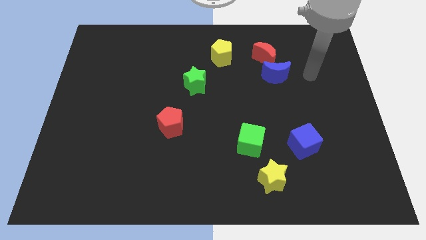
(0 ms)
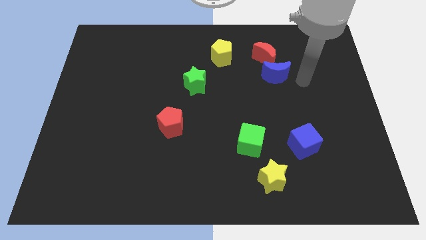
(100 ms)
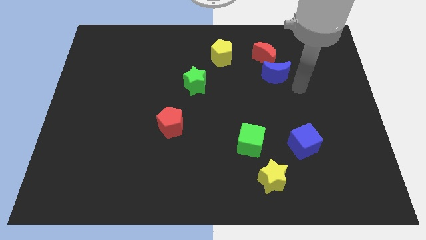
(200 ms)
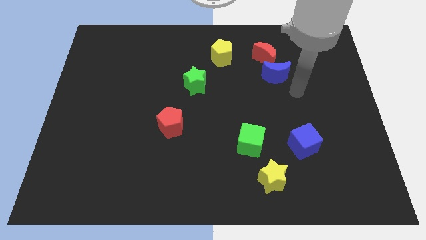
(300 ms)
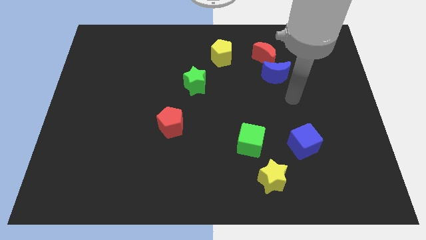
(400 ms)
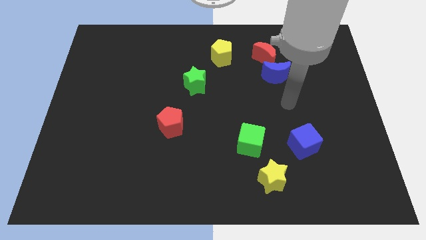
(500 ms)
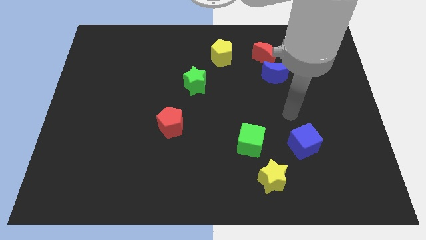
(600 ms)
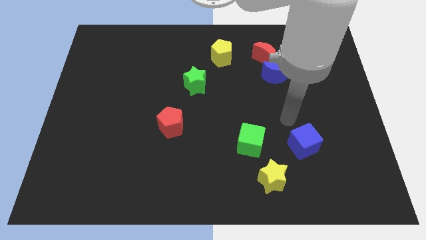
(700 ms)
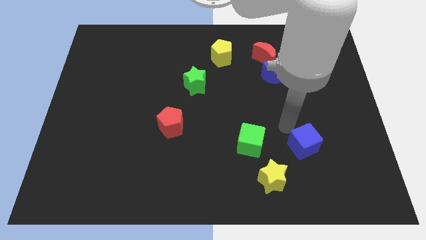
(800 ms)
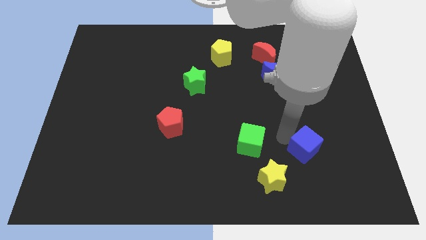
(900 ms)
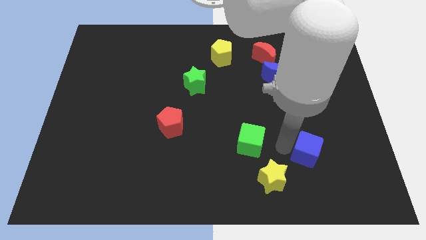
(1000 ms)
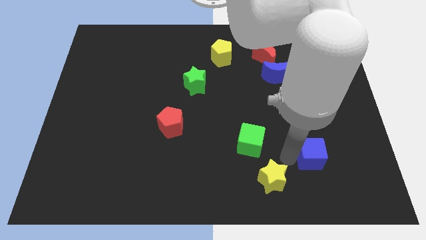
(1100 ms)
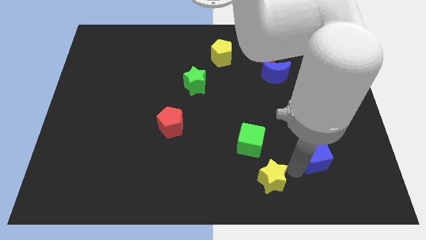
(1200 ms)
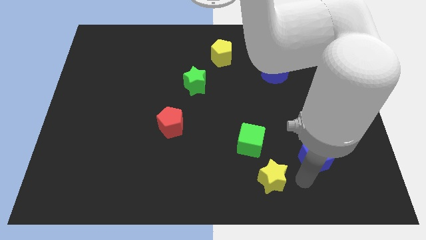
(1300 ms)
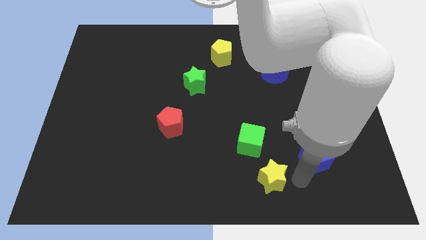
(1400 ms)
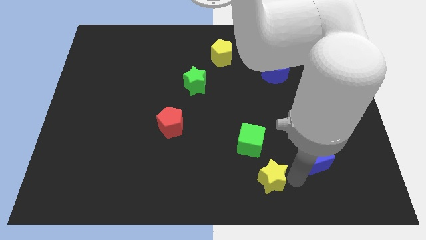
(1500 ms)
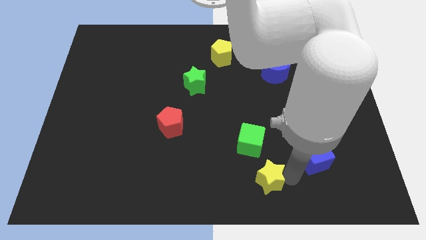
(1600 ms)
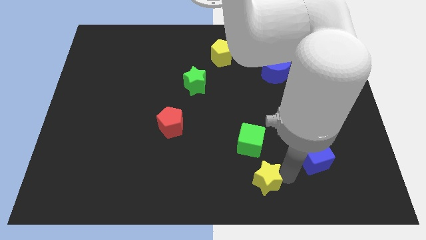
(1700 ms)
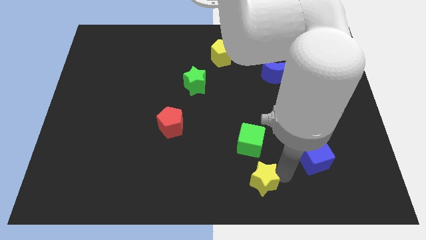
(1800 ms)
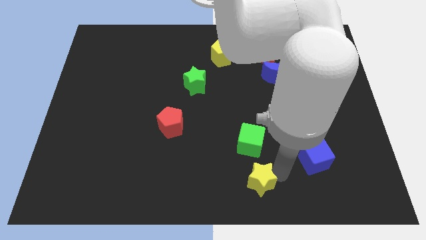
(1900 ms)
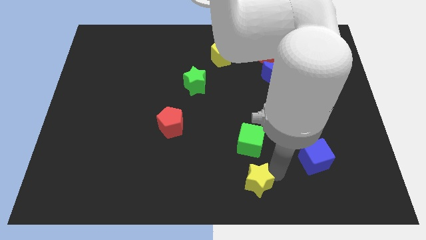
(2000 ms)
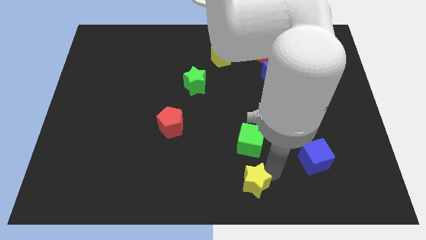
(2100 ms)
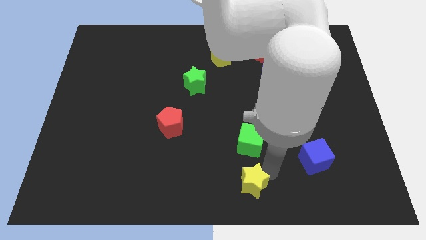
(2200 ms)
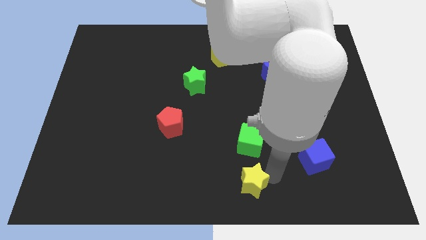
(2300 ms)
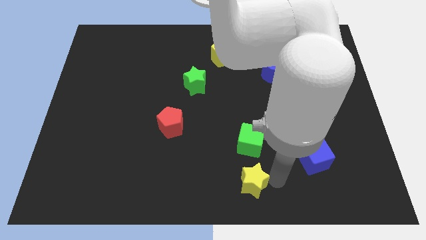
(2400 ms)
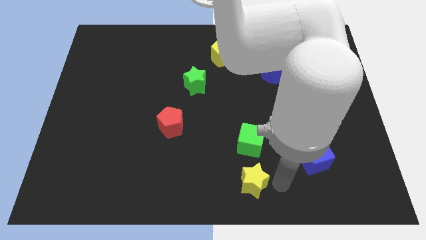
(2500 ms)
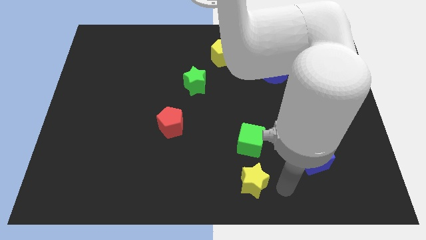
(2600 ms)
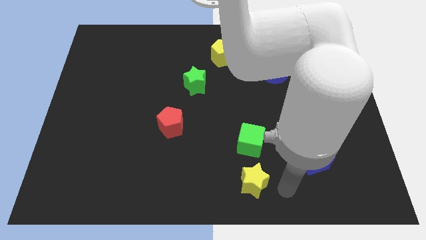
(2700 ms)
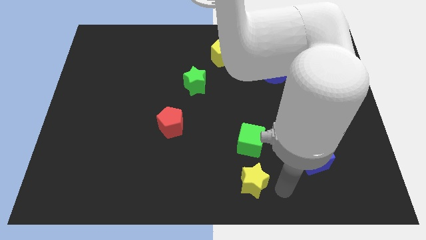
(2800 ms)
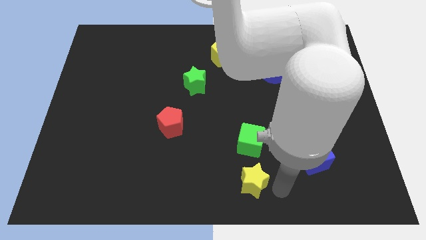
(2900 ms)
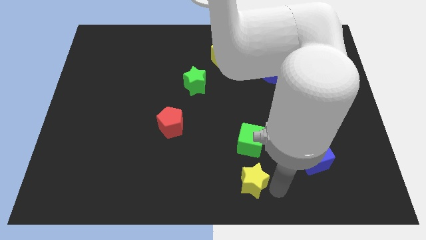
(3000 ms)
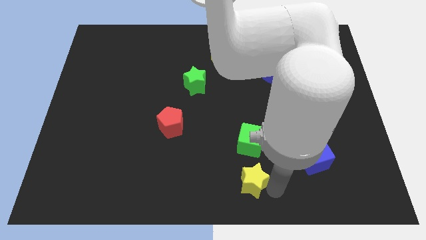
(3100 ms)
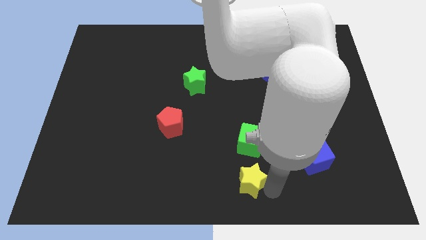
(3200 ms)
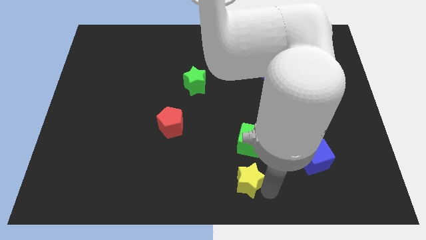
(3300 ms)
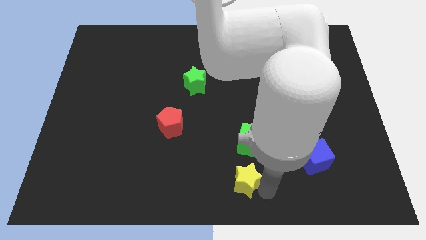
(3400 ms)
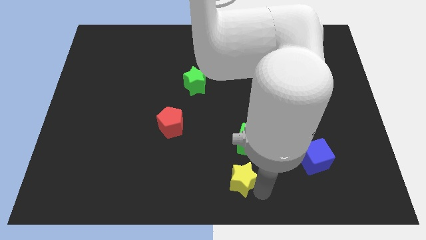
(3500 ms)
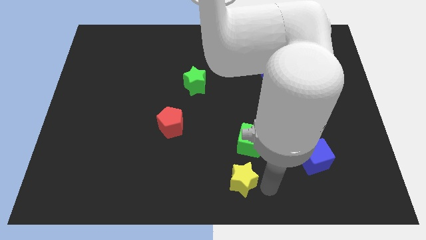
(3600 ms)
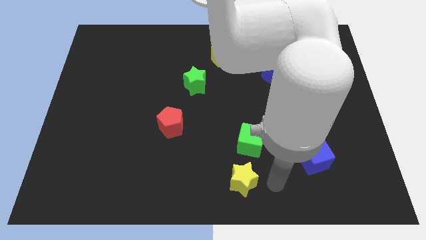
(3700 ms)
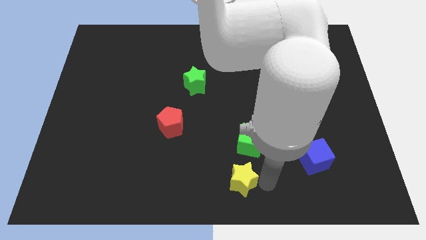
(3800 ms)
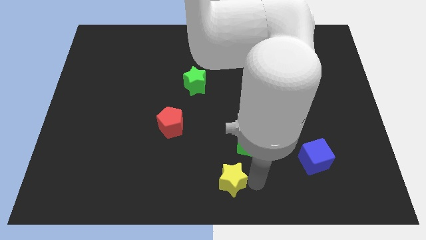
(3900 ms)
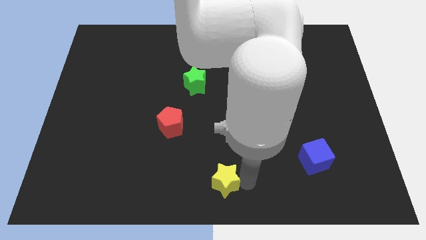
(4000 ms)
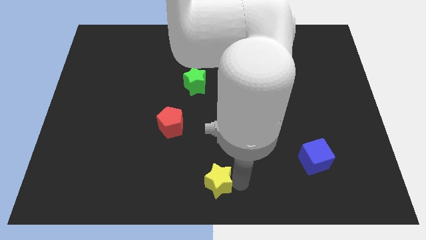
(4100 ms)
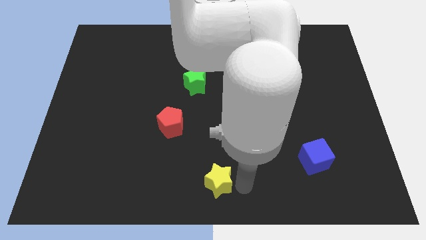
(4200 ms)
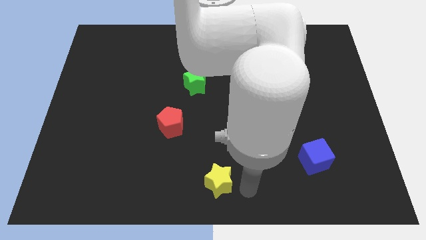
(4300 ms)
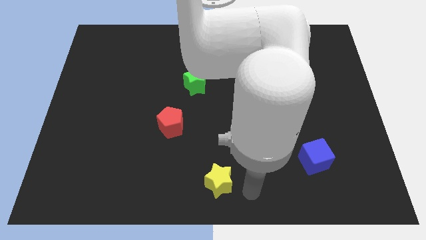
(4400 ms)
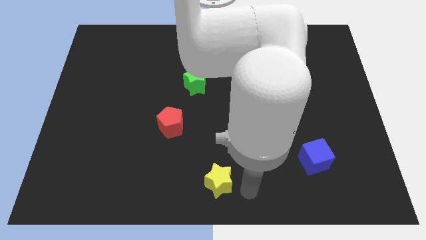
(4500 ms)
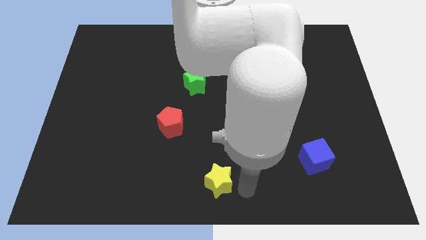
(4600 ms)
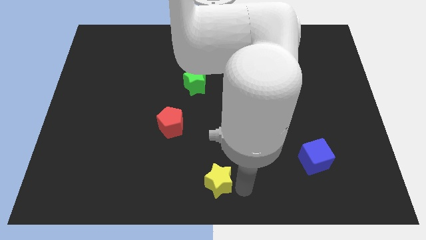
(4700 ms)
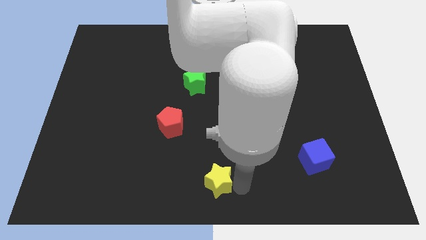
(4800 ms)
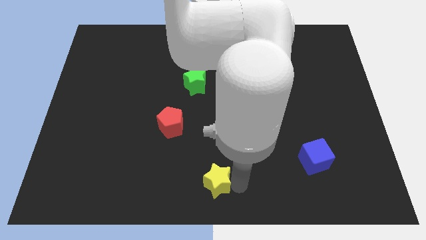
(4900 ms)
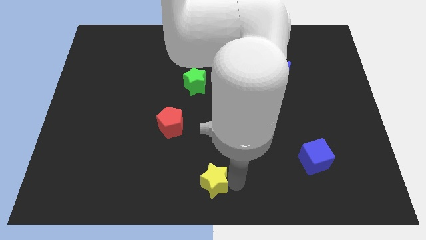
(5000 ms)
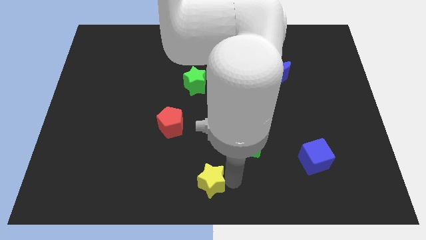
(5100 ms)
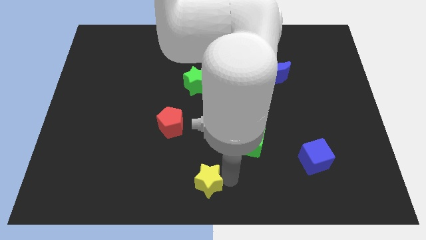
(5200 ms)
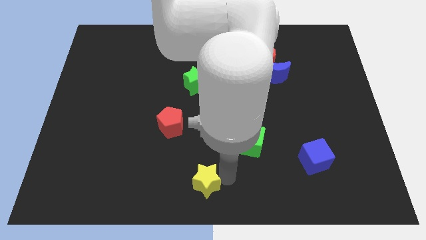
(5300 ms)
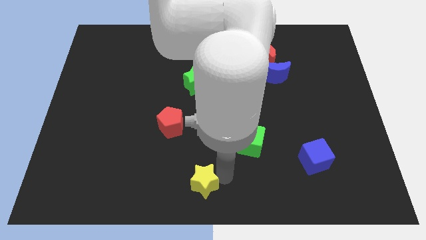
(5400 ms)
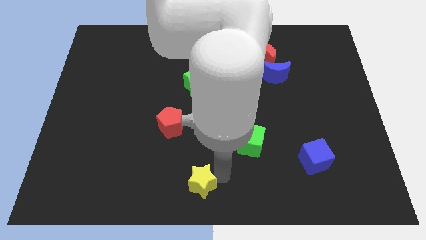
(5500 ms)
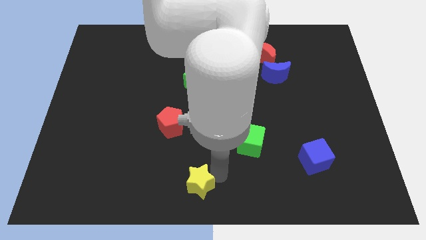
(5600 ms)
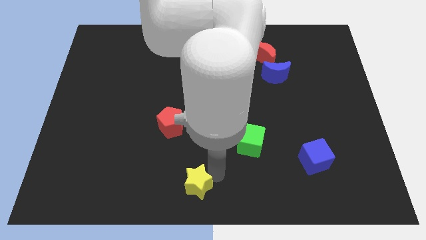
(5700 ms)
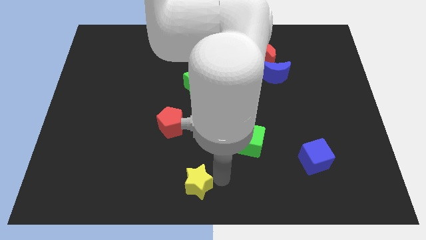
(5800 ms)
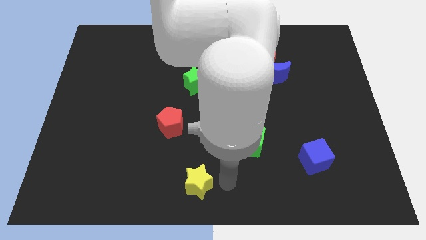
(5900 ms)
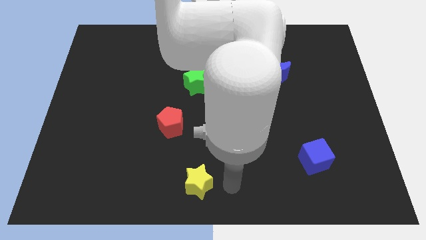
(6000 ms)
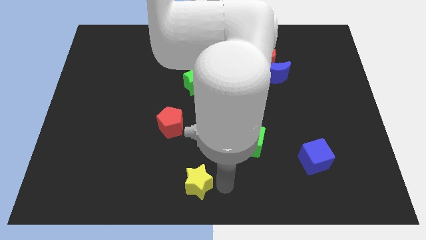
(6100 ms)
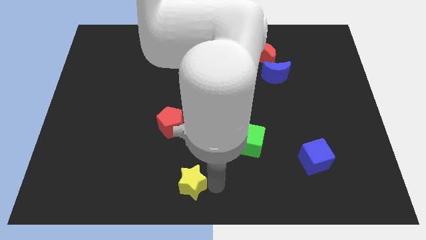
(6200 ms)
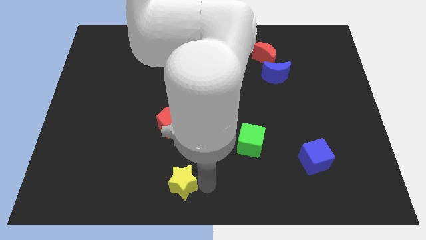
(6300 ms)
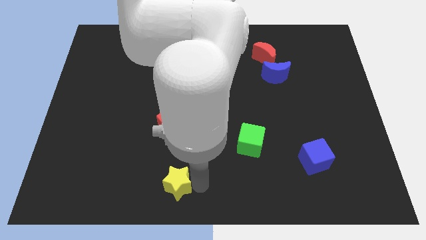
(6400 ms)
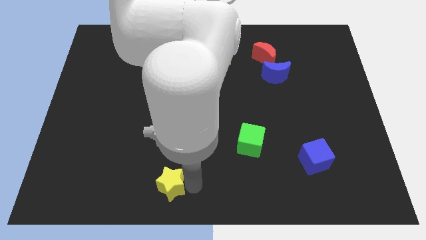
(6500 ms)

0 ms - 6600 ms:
push the yellow star left

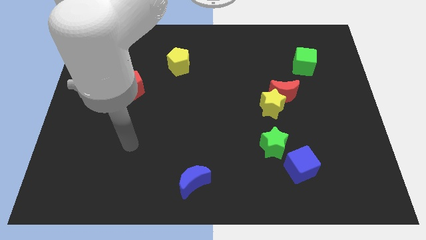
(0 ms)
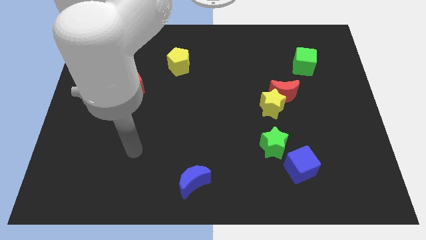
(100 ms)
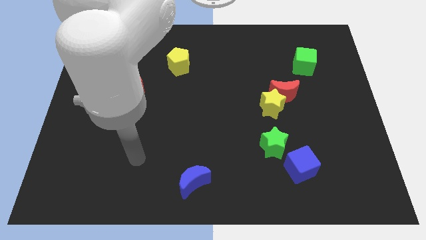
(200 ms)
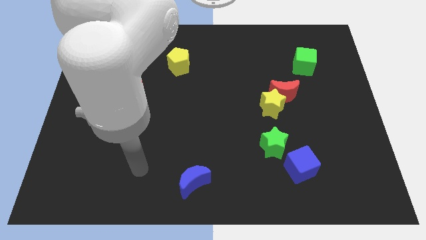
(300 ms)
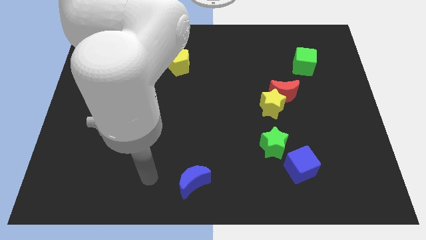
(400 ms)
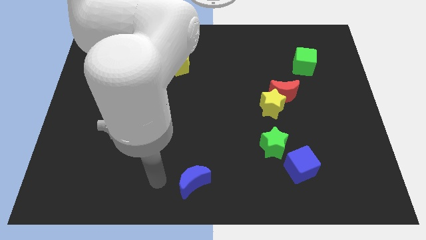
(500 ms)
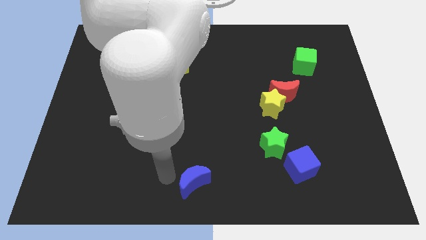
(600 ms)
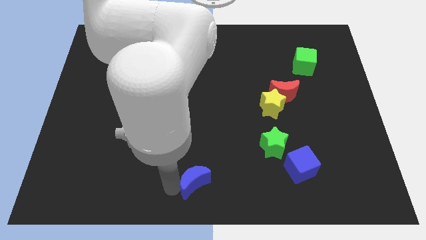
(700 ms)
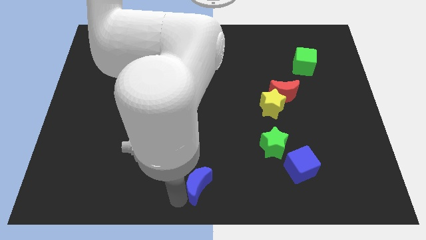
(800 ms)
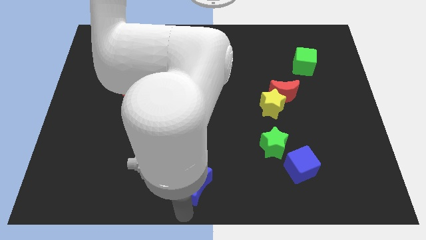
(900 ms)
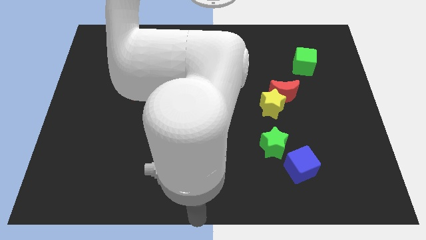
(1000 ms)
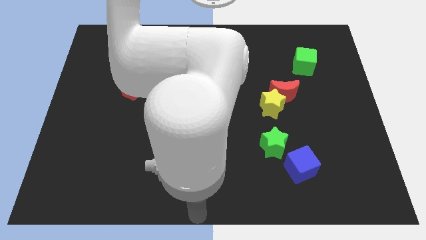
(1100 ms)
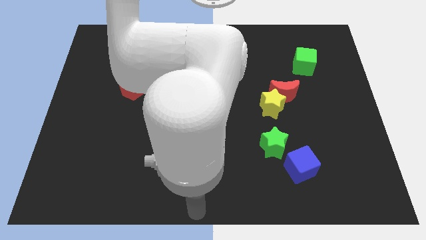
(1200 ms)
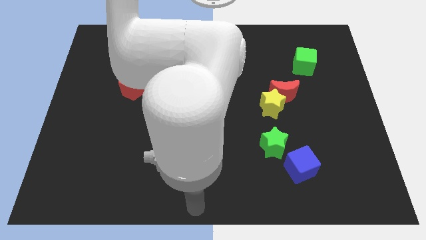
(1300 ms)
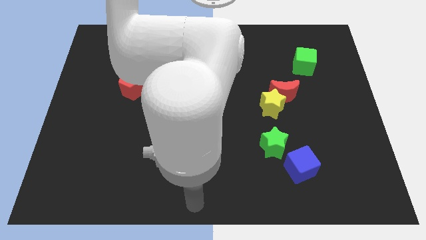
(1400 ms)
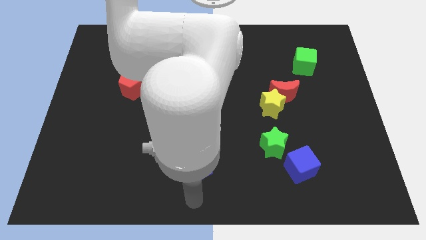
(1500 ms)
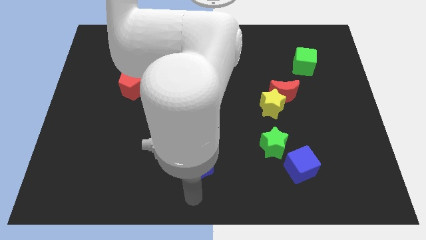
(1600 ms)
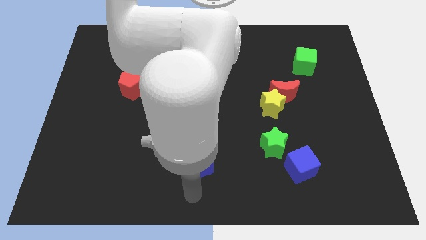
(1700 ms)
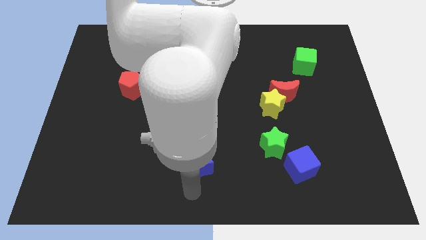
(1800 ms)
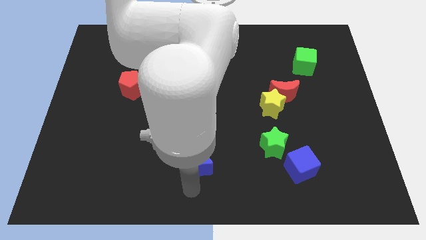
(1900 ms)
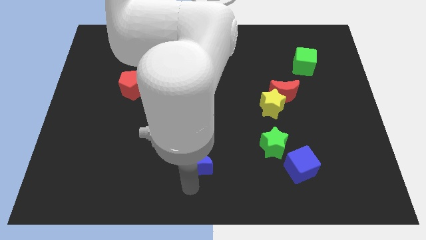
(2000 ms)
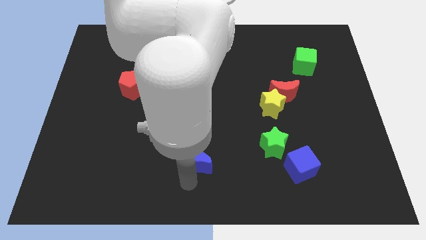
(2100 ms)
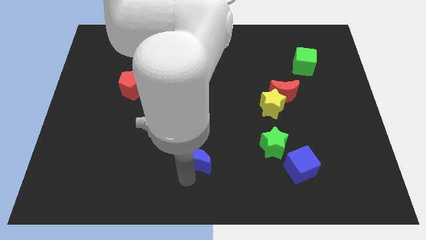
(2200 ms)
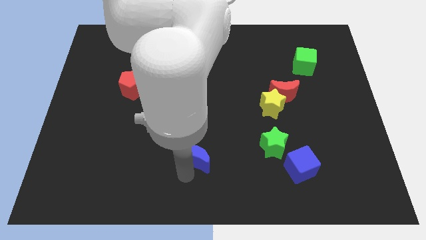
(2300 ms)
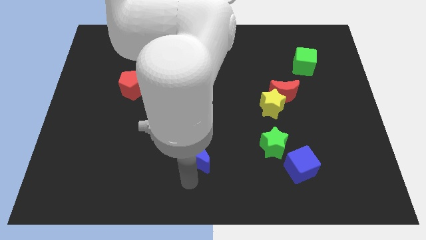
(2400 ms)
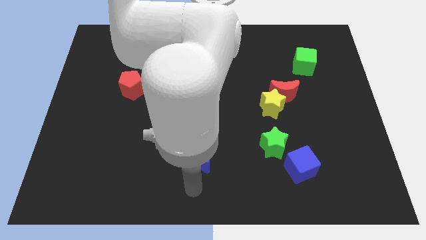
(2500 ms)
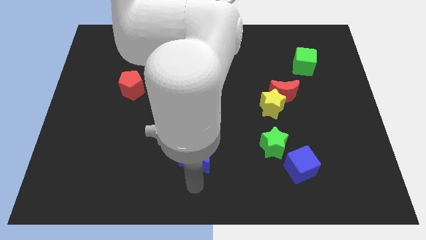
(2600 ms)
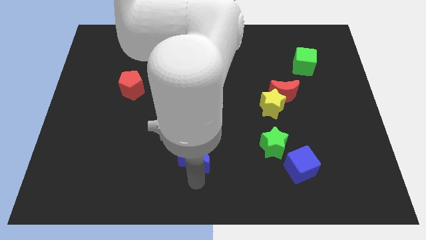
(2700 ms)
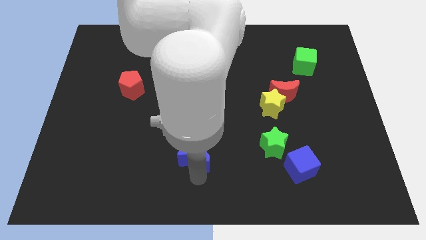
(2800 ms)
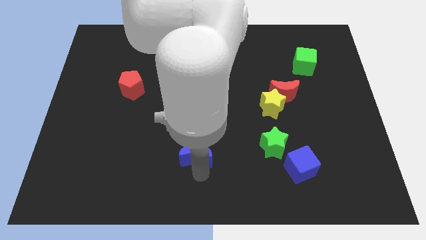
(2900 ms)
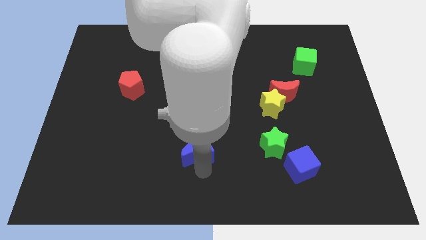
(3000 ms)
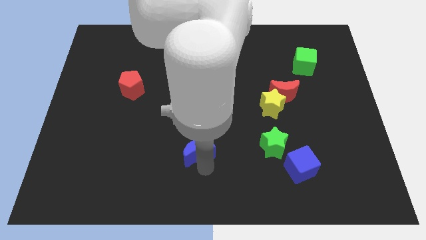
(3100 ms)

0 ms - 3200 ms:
slightly slide the blue moon up
